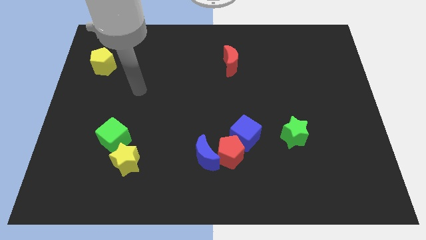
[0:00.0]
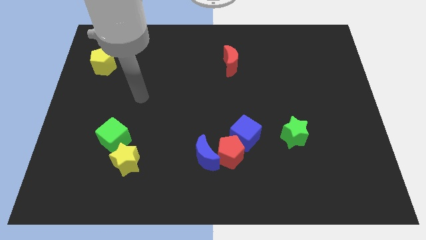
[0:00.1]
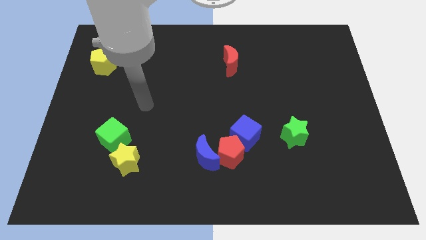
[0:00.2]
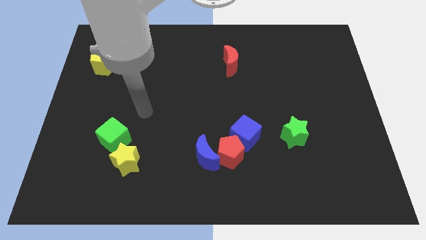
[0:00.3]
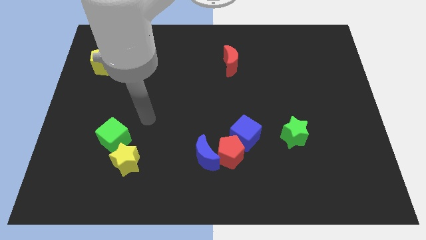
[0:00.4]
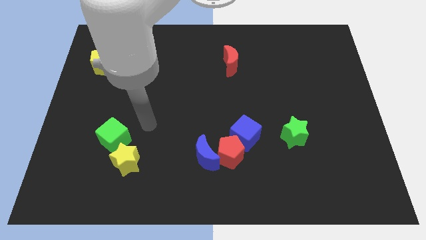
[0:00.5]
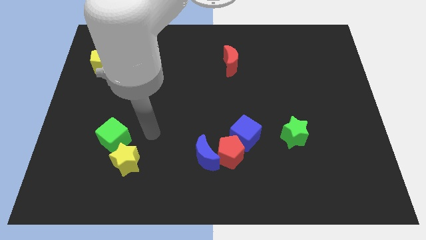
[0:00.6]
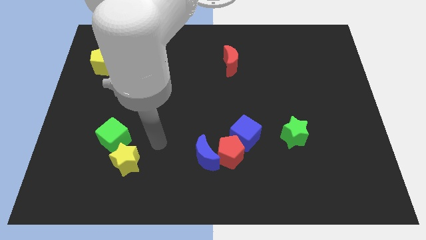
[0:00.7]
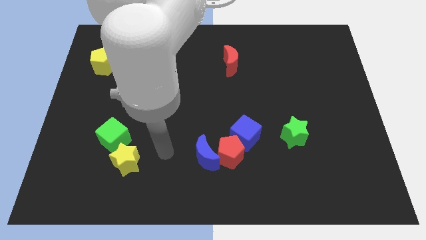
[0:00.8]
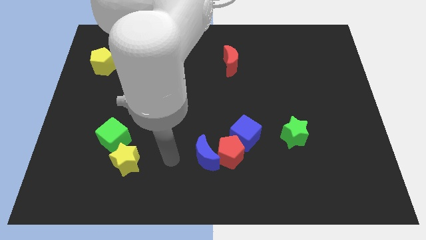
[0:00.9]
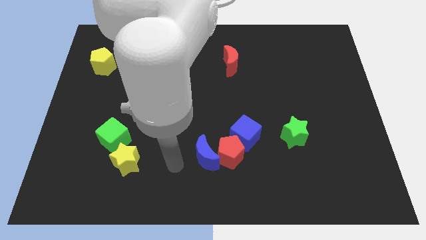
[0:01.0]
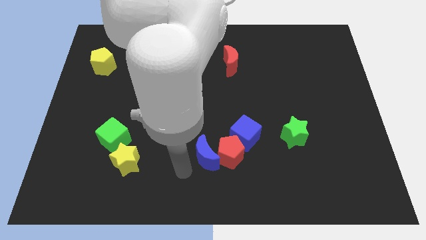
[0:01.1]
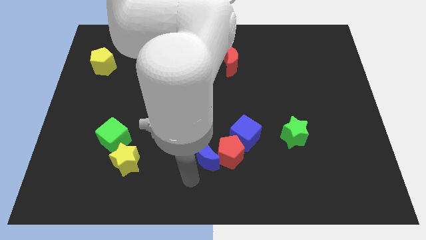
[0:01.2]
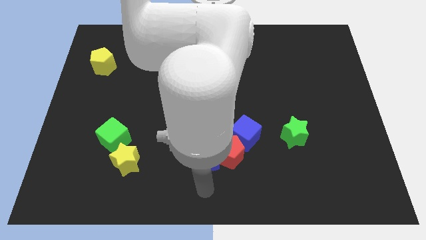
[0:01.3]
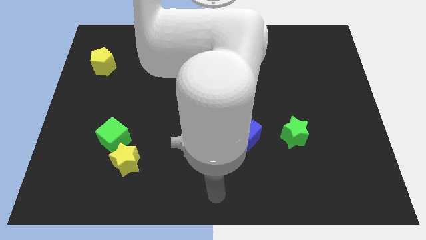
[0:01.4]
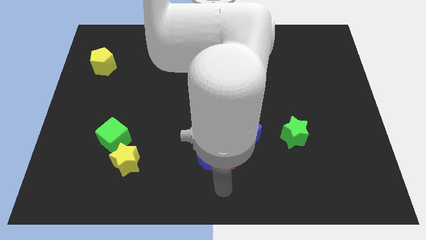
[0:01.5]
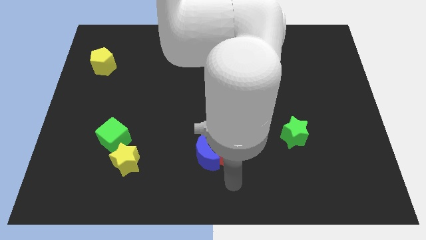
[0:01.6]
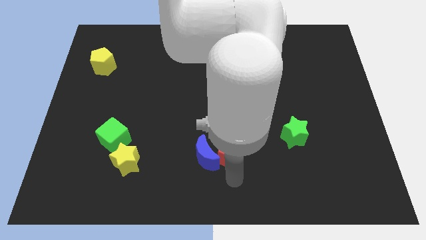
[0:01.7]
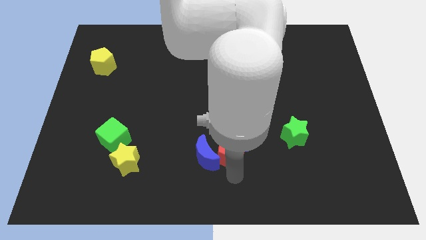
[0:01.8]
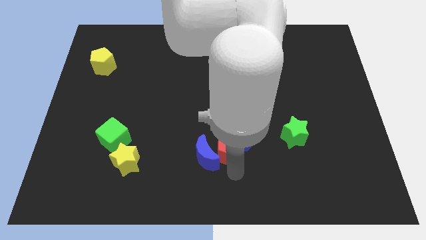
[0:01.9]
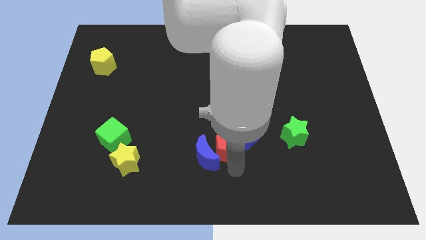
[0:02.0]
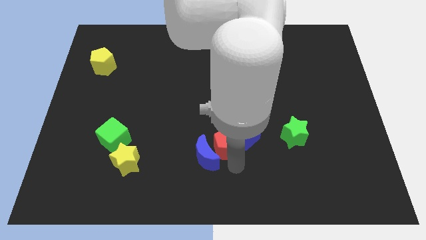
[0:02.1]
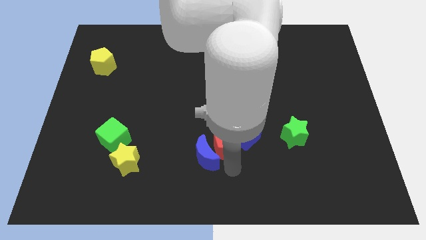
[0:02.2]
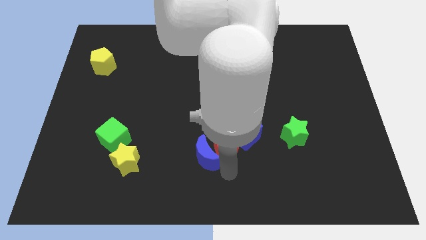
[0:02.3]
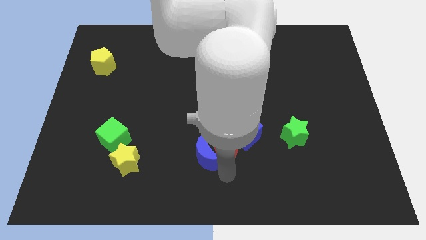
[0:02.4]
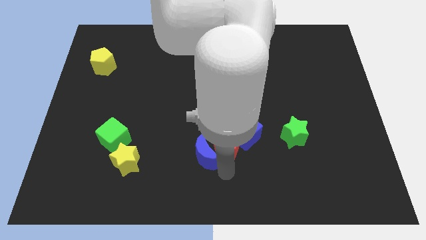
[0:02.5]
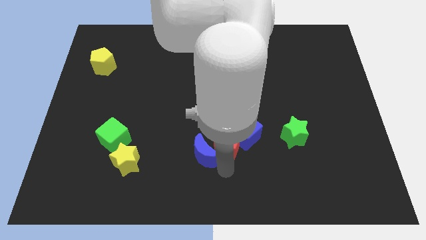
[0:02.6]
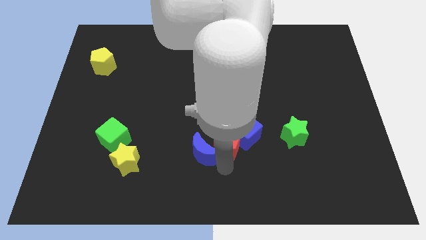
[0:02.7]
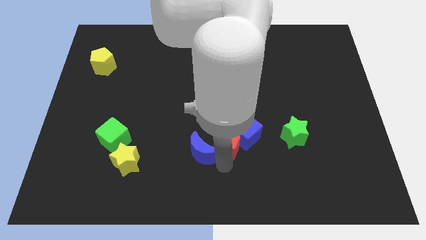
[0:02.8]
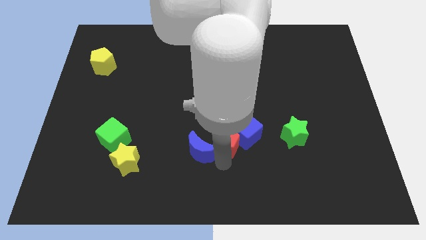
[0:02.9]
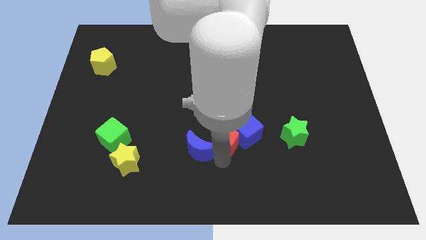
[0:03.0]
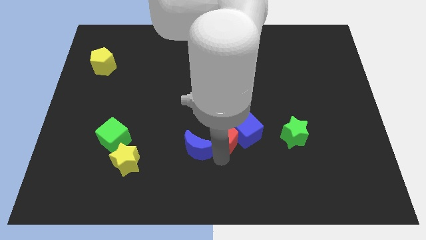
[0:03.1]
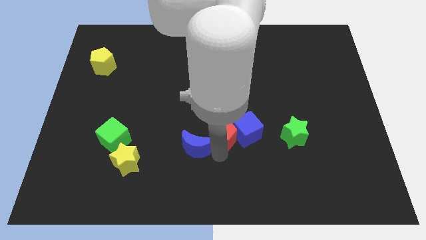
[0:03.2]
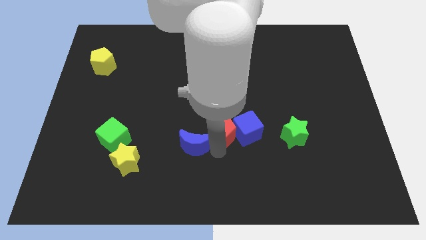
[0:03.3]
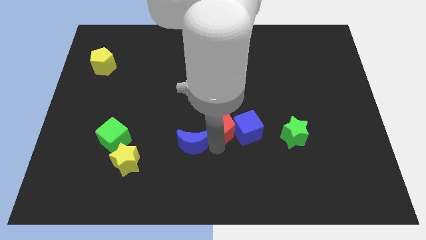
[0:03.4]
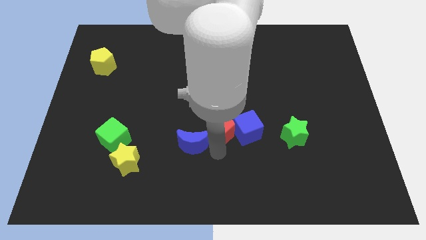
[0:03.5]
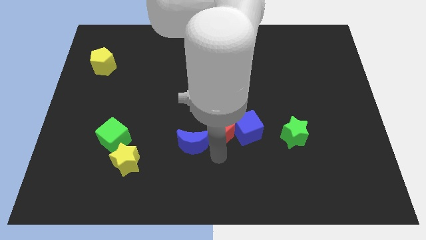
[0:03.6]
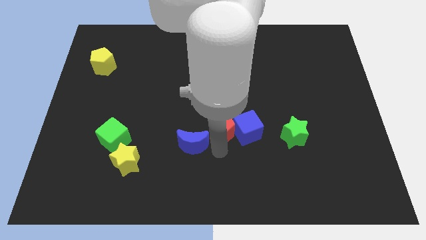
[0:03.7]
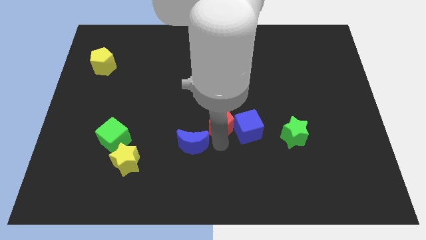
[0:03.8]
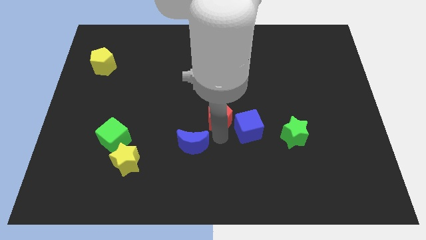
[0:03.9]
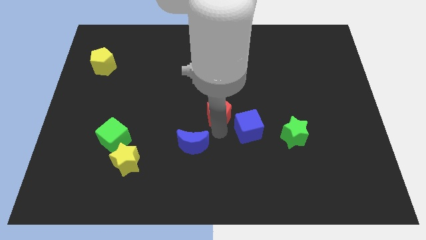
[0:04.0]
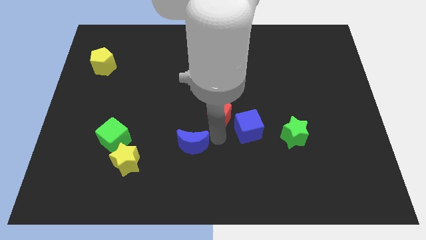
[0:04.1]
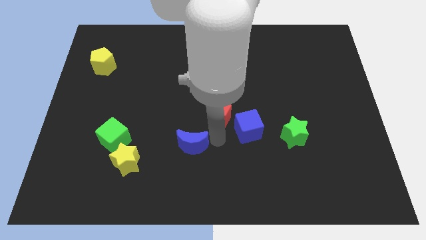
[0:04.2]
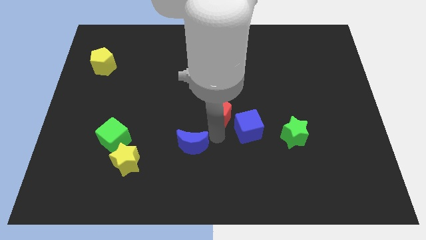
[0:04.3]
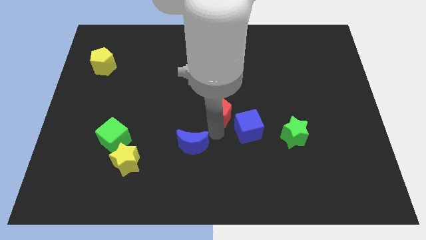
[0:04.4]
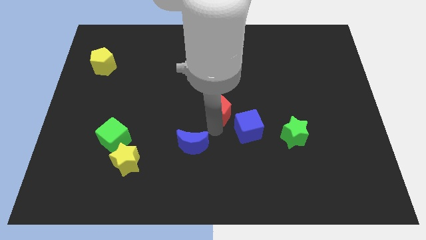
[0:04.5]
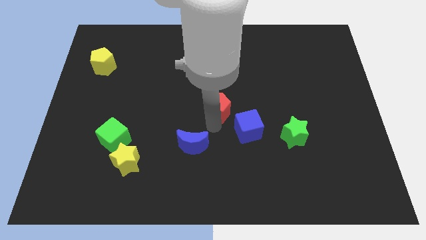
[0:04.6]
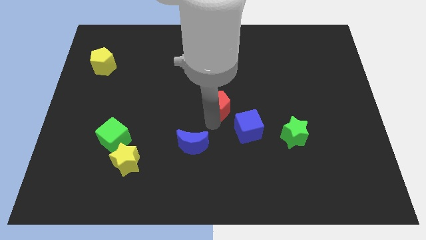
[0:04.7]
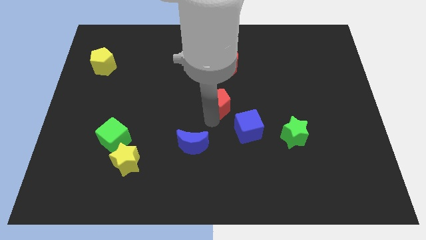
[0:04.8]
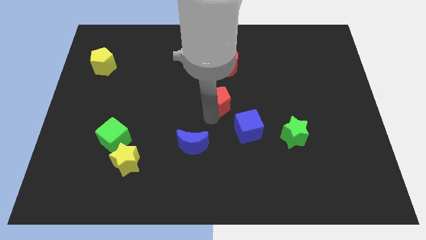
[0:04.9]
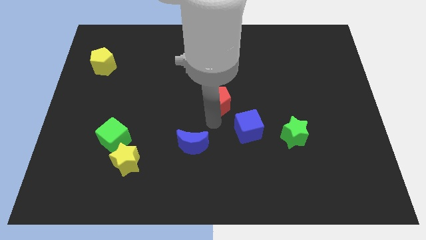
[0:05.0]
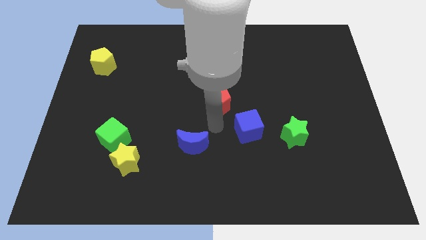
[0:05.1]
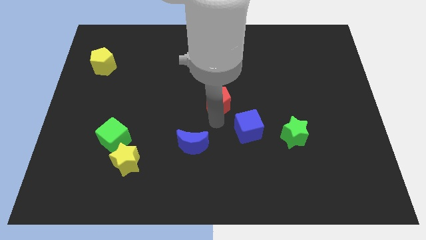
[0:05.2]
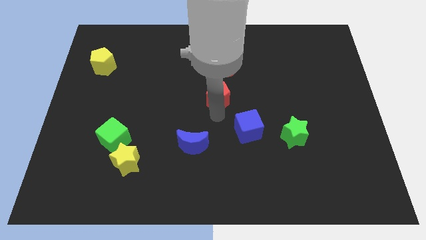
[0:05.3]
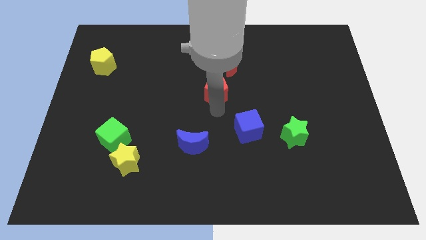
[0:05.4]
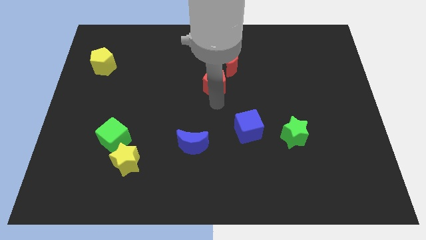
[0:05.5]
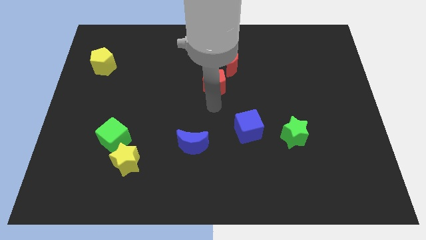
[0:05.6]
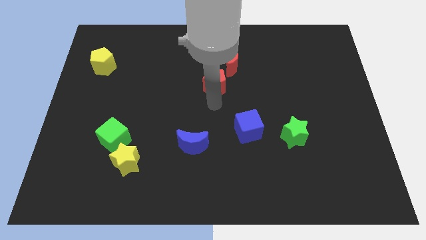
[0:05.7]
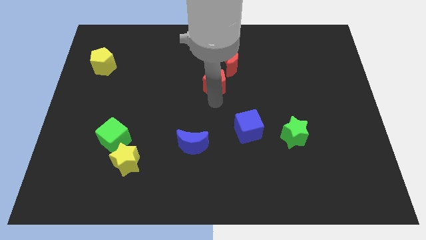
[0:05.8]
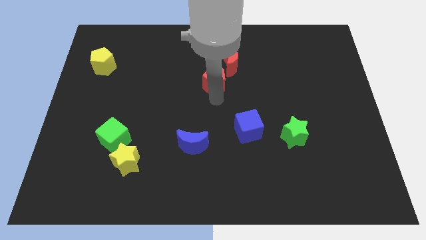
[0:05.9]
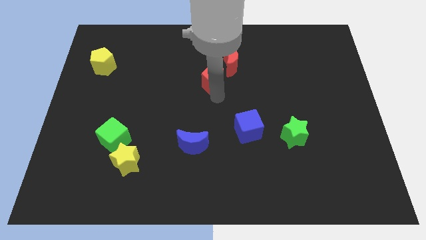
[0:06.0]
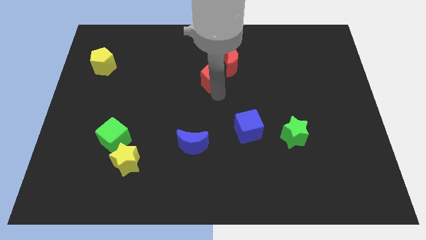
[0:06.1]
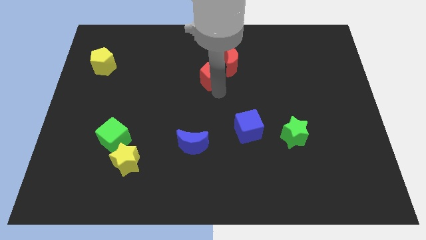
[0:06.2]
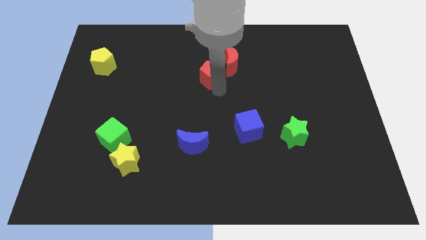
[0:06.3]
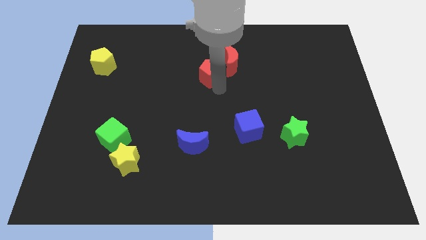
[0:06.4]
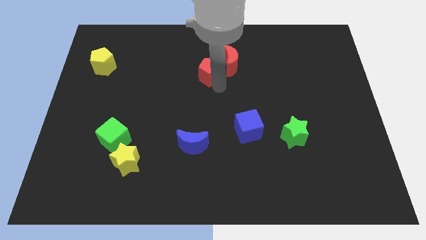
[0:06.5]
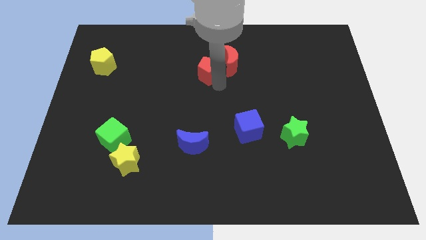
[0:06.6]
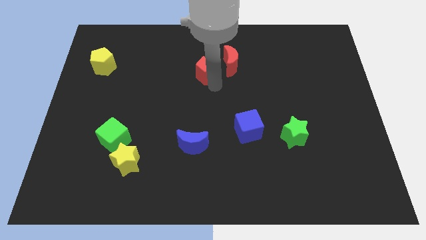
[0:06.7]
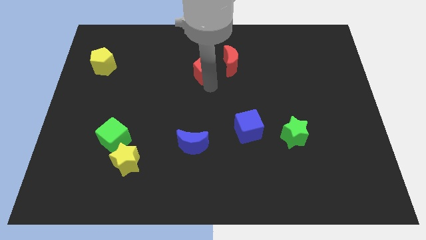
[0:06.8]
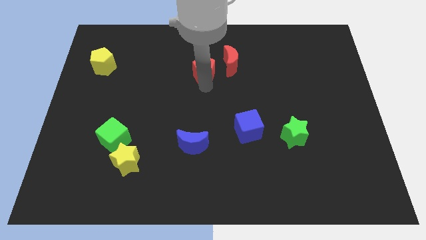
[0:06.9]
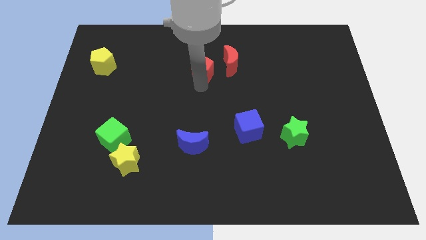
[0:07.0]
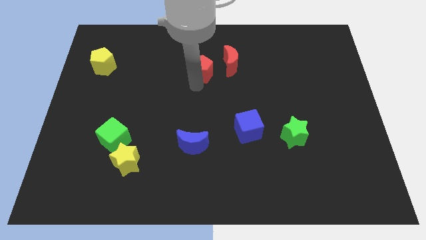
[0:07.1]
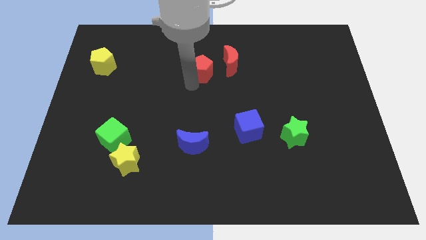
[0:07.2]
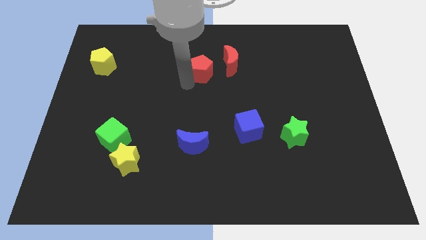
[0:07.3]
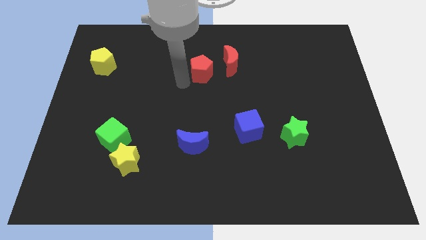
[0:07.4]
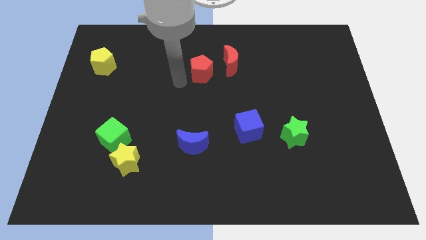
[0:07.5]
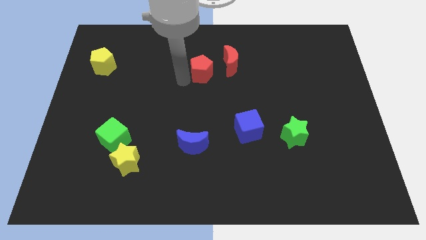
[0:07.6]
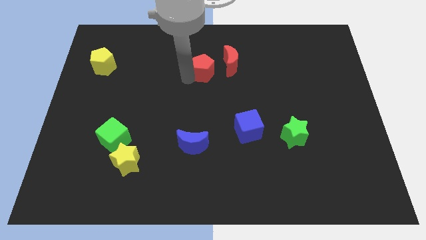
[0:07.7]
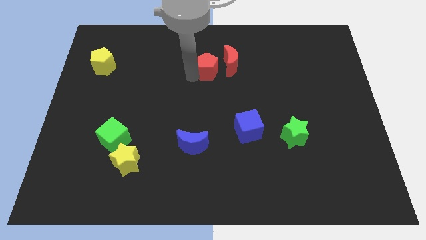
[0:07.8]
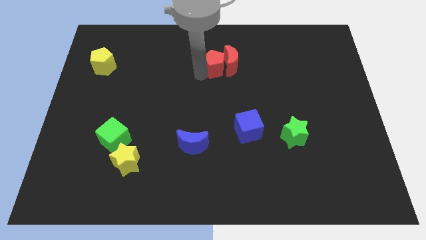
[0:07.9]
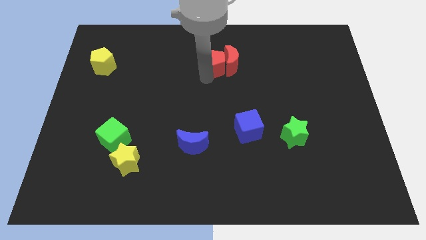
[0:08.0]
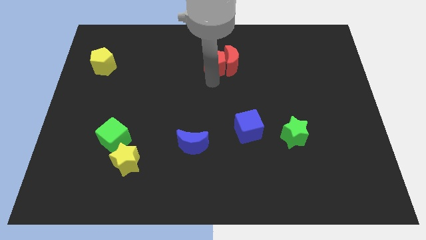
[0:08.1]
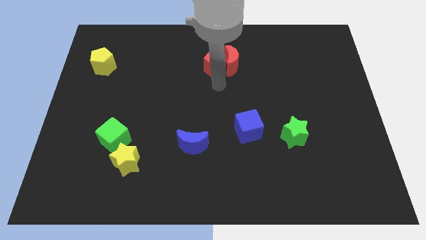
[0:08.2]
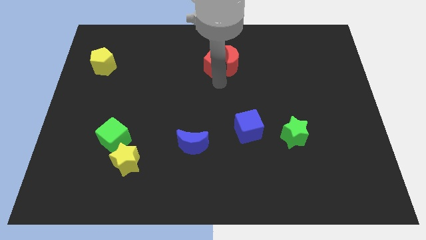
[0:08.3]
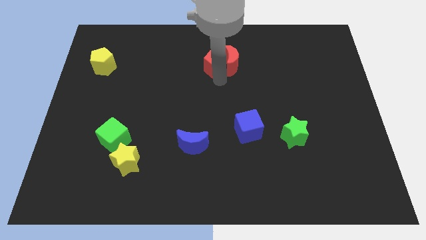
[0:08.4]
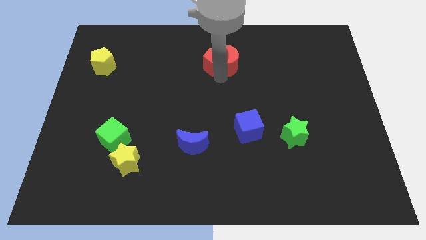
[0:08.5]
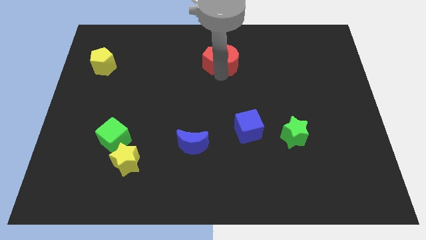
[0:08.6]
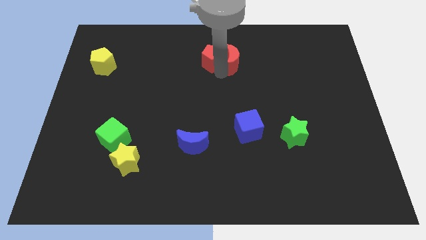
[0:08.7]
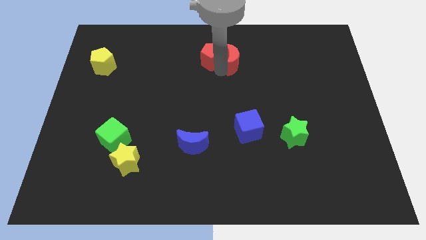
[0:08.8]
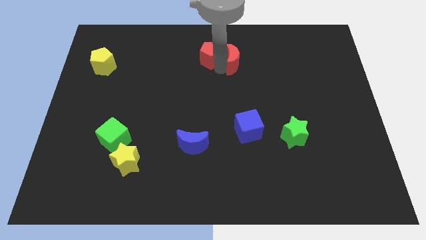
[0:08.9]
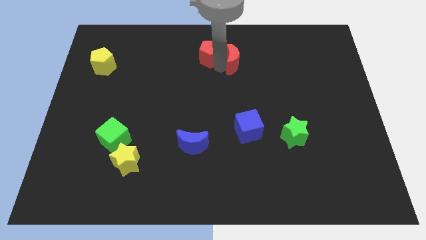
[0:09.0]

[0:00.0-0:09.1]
move the red pentagon to the top side
